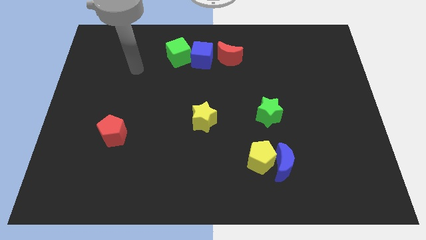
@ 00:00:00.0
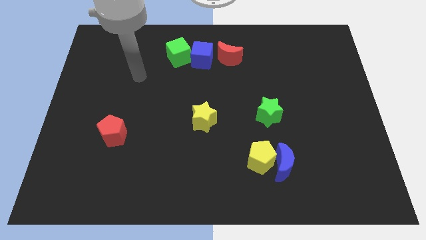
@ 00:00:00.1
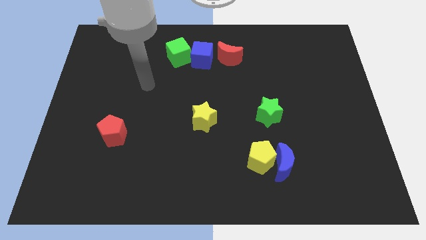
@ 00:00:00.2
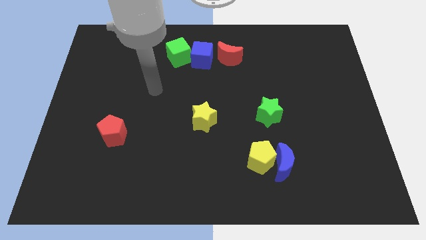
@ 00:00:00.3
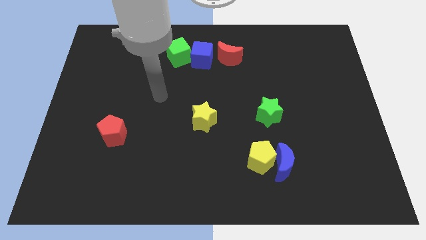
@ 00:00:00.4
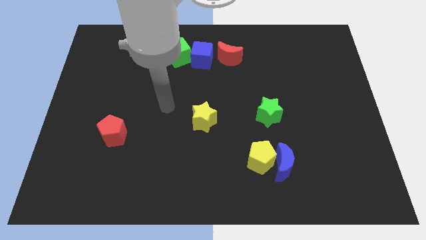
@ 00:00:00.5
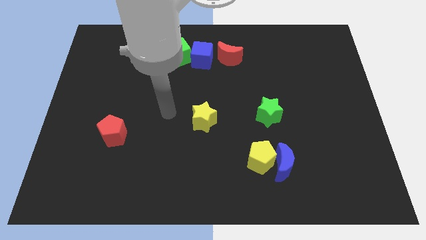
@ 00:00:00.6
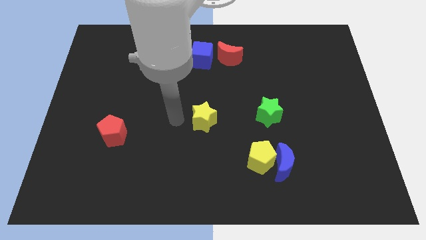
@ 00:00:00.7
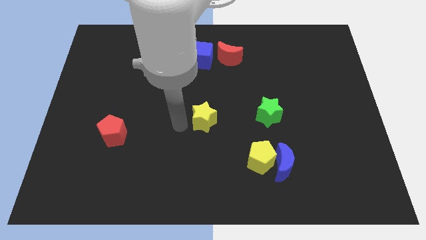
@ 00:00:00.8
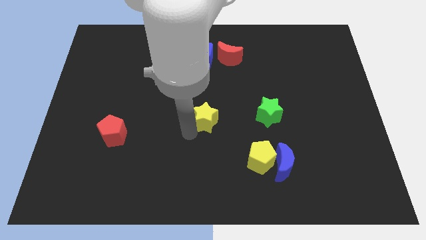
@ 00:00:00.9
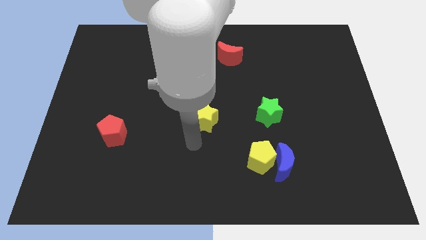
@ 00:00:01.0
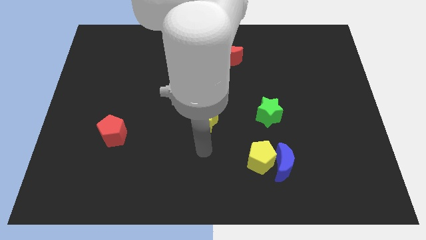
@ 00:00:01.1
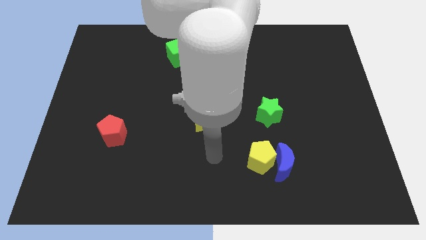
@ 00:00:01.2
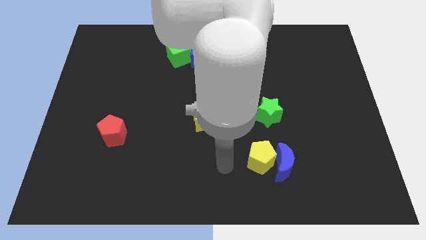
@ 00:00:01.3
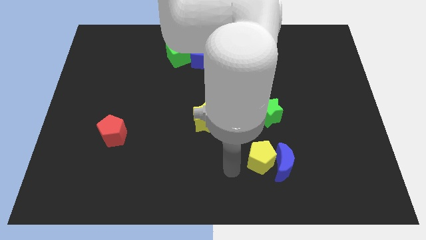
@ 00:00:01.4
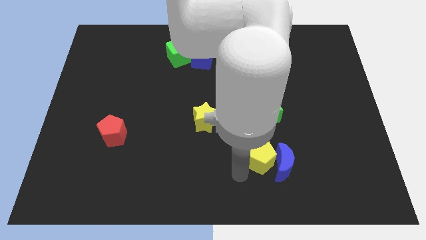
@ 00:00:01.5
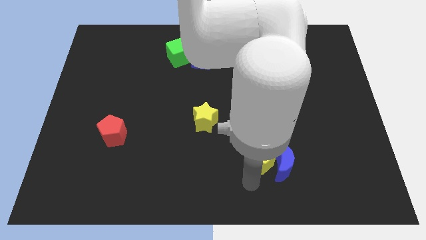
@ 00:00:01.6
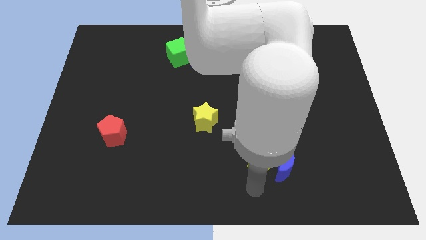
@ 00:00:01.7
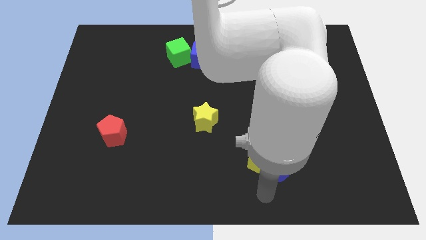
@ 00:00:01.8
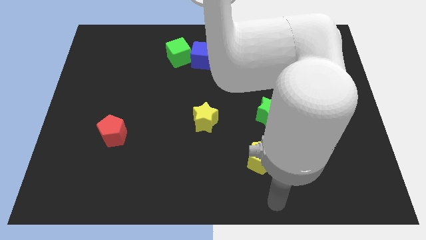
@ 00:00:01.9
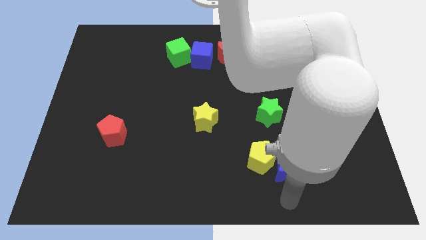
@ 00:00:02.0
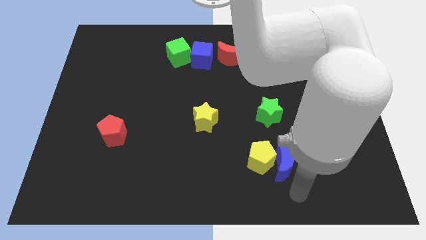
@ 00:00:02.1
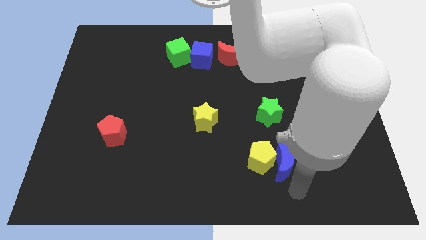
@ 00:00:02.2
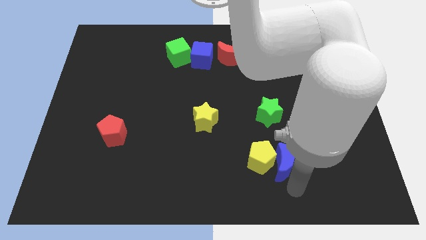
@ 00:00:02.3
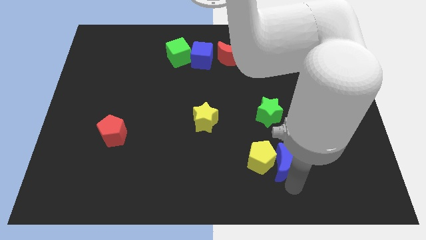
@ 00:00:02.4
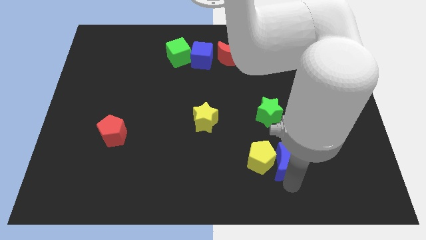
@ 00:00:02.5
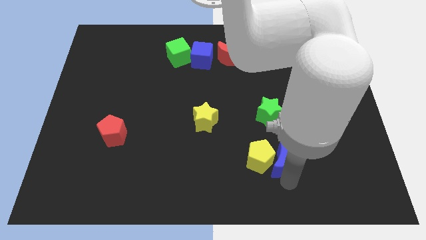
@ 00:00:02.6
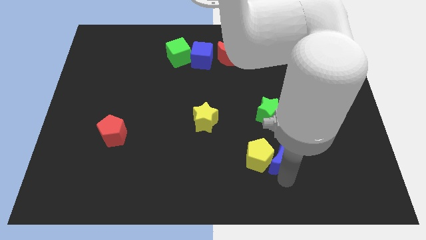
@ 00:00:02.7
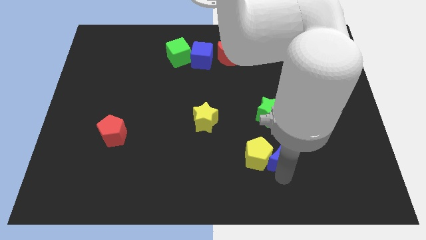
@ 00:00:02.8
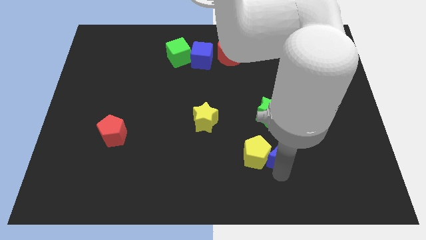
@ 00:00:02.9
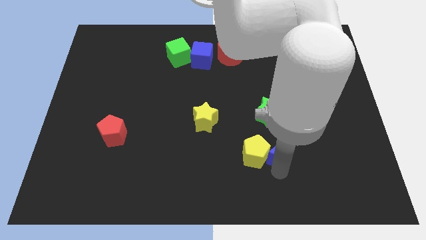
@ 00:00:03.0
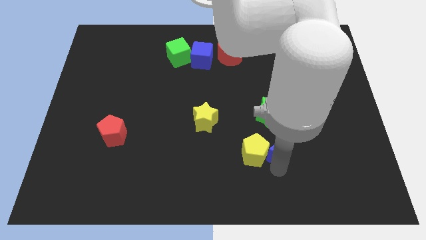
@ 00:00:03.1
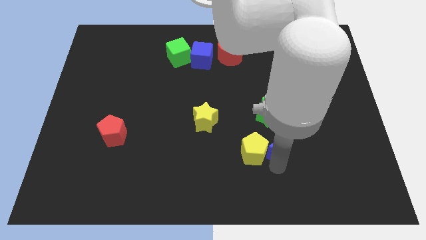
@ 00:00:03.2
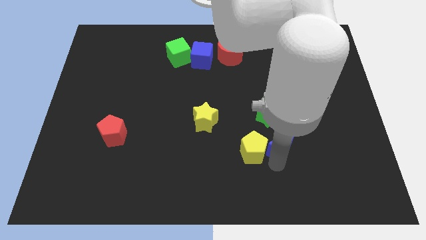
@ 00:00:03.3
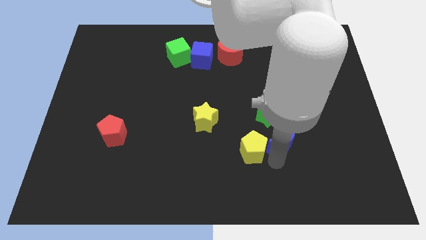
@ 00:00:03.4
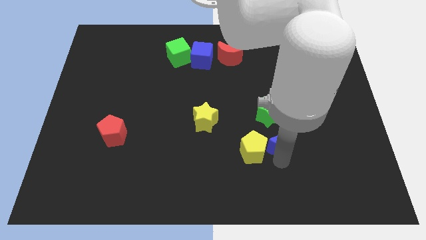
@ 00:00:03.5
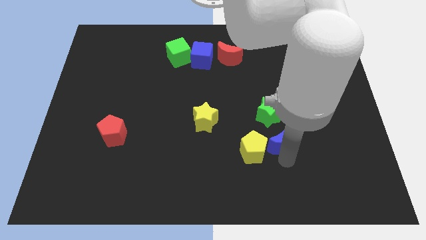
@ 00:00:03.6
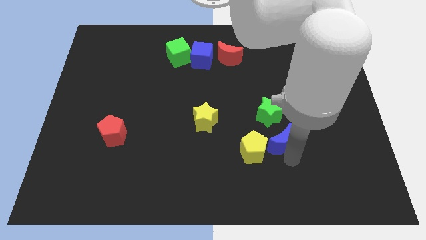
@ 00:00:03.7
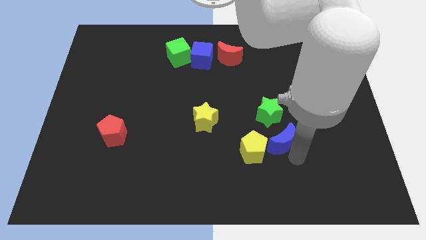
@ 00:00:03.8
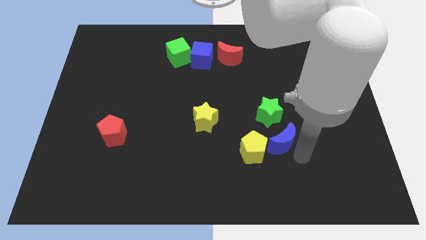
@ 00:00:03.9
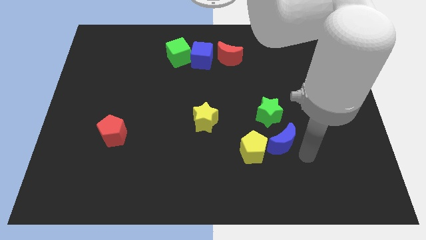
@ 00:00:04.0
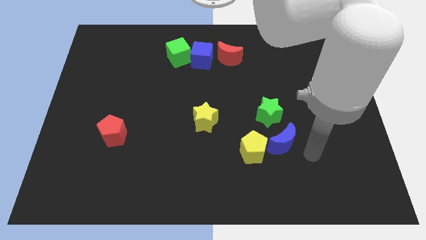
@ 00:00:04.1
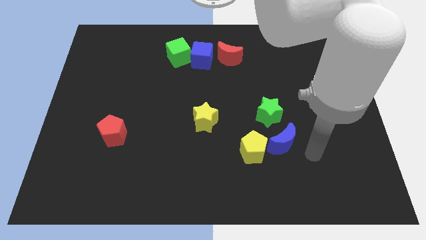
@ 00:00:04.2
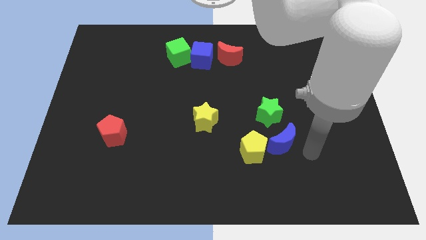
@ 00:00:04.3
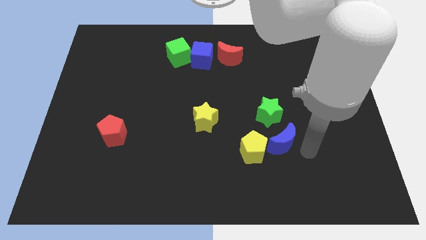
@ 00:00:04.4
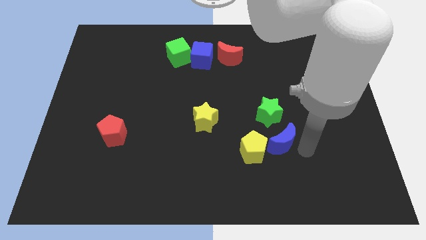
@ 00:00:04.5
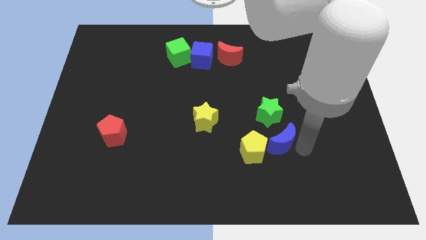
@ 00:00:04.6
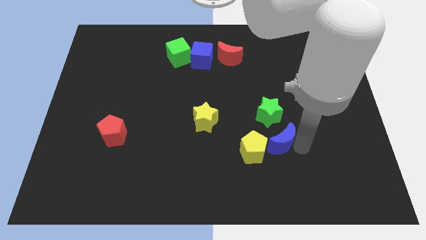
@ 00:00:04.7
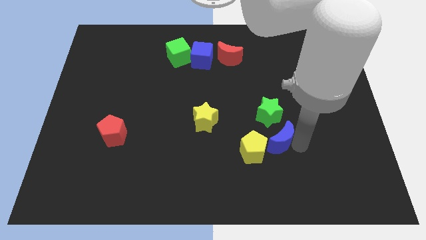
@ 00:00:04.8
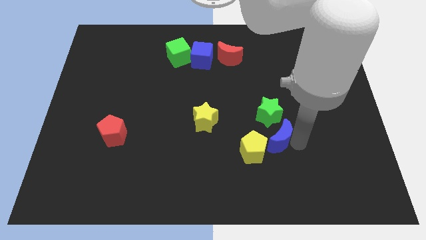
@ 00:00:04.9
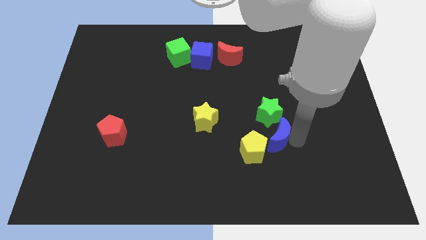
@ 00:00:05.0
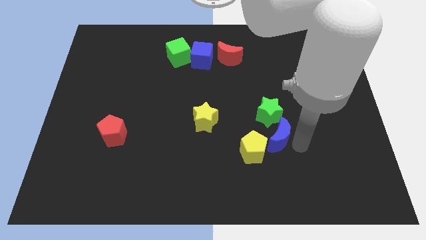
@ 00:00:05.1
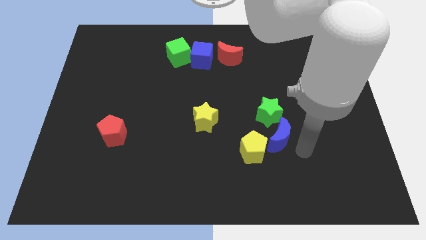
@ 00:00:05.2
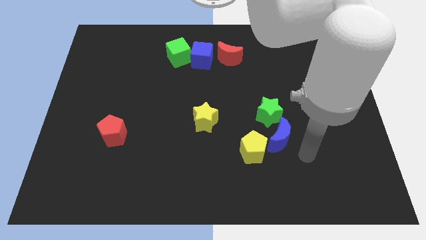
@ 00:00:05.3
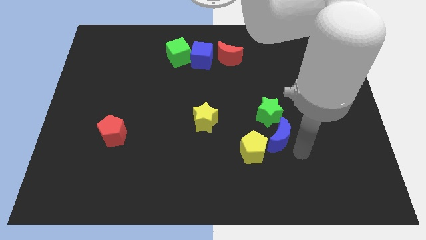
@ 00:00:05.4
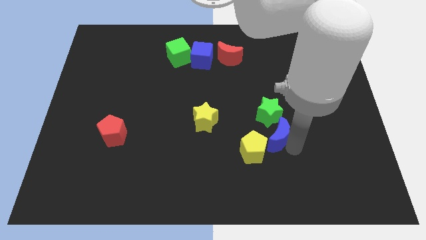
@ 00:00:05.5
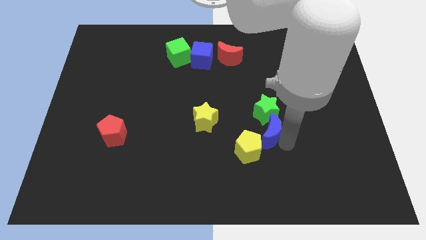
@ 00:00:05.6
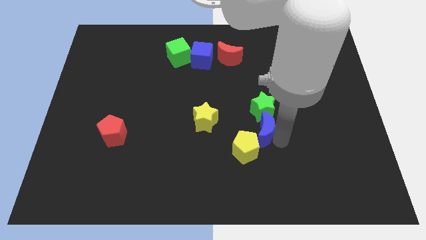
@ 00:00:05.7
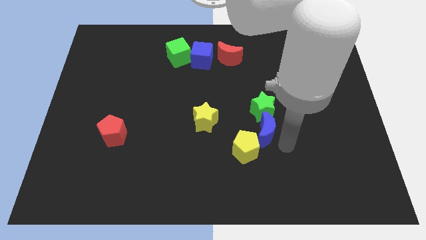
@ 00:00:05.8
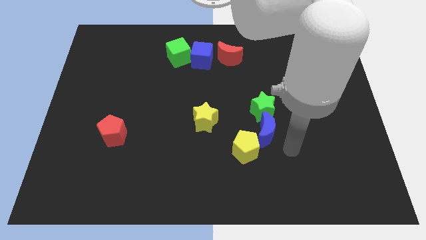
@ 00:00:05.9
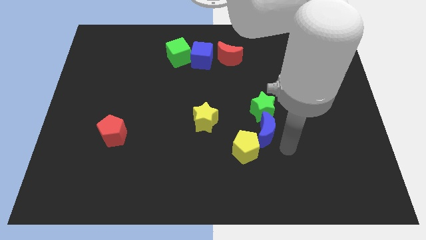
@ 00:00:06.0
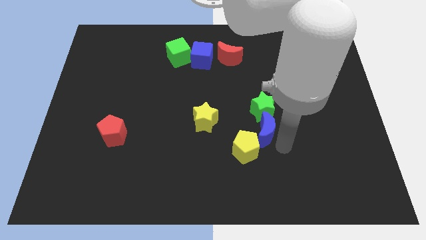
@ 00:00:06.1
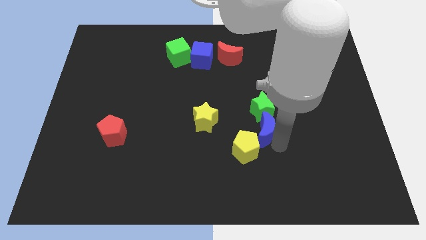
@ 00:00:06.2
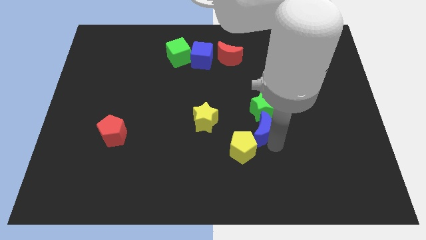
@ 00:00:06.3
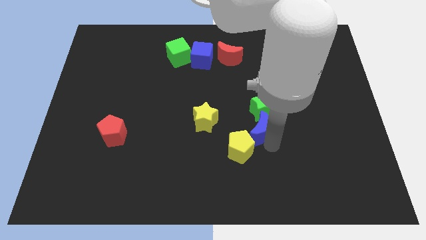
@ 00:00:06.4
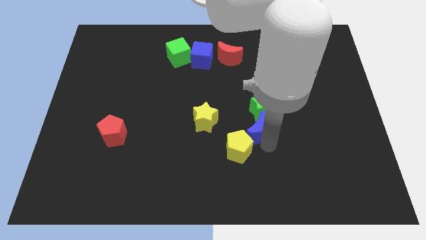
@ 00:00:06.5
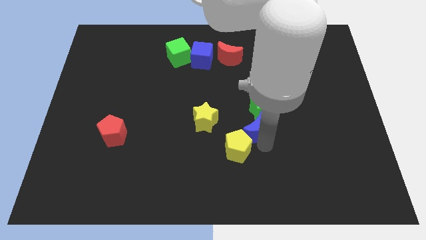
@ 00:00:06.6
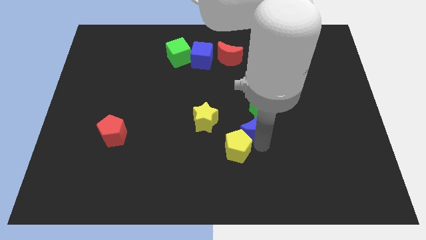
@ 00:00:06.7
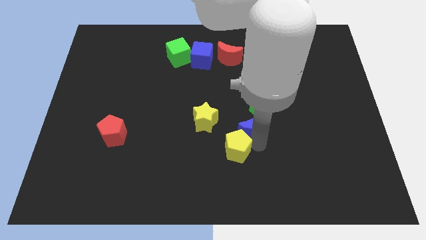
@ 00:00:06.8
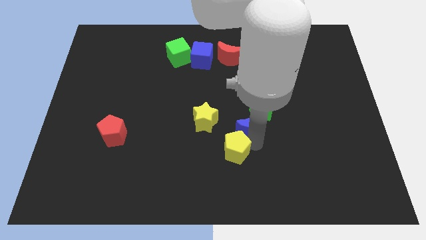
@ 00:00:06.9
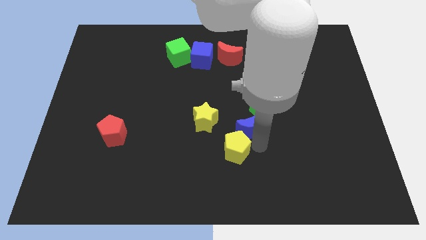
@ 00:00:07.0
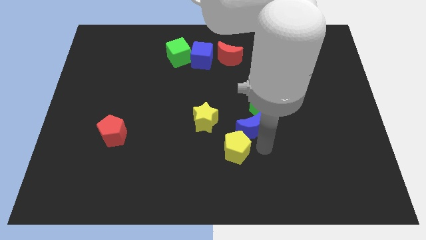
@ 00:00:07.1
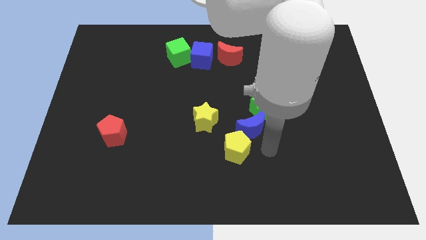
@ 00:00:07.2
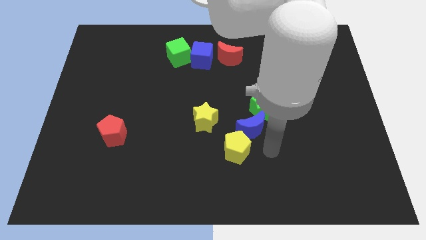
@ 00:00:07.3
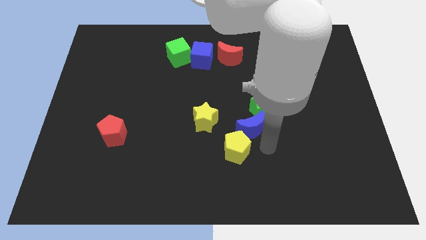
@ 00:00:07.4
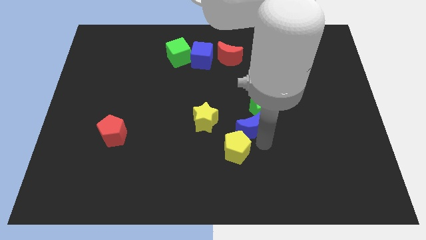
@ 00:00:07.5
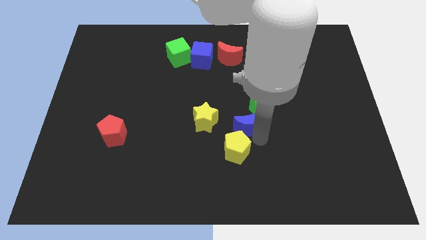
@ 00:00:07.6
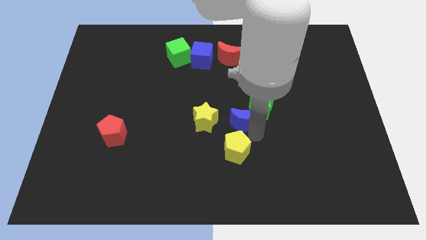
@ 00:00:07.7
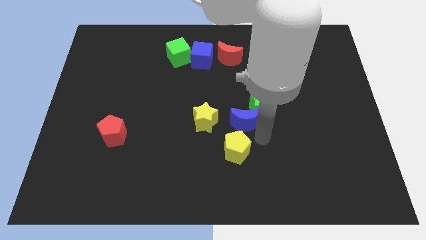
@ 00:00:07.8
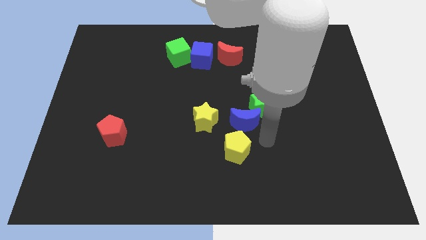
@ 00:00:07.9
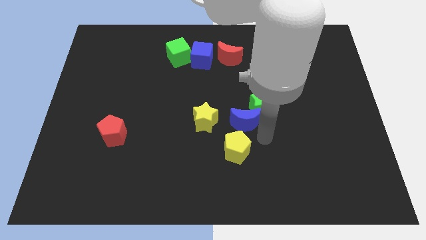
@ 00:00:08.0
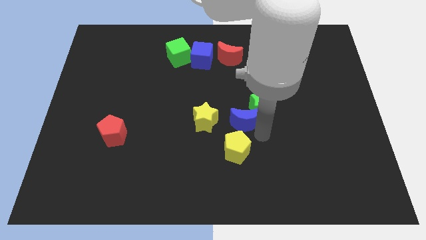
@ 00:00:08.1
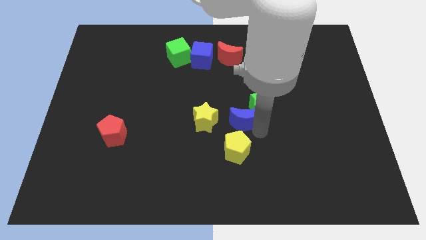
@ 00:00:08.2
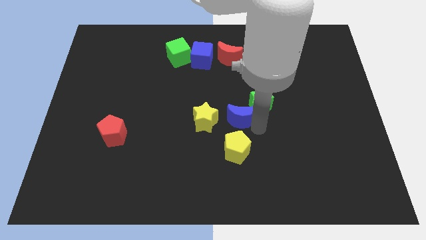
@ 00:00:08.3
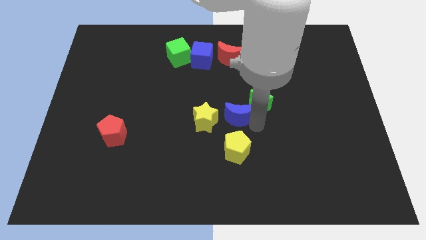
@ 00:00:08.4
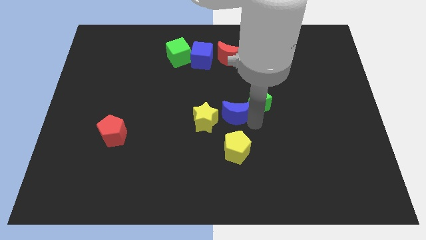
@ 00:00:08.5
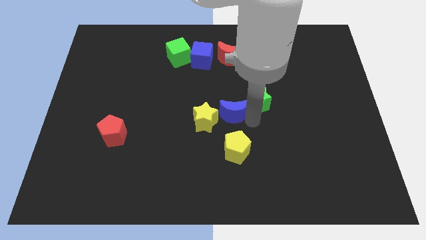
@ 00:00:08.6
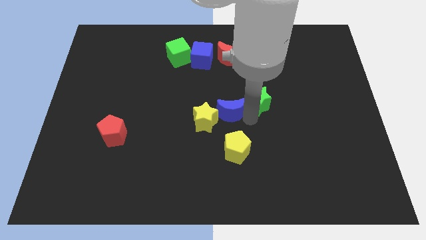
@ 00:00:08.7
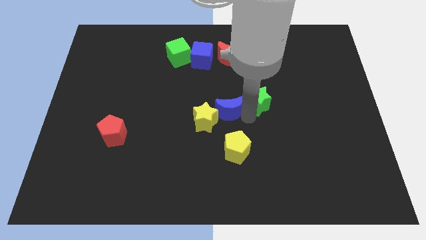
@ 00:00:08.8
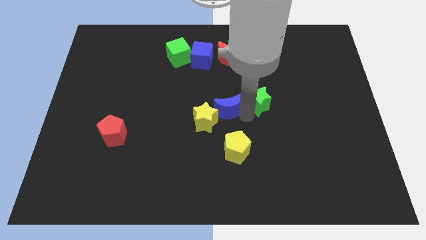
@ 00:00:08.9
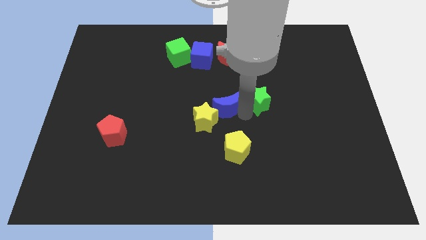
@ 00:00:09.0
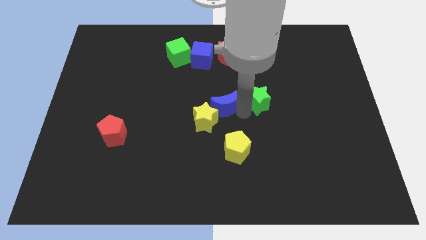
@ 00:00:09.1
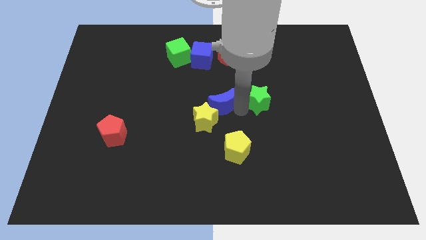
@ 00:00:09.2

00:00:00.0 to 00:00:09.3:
move the blue moon upwards and left diagonally
